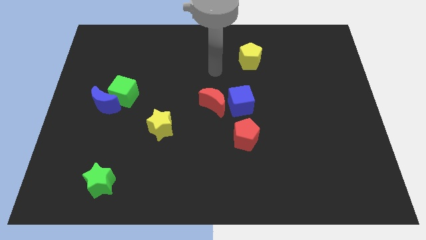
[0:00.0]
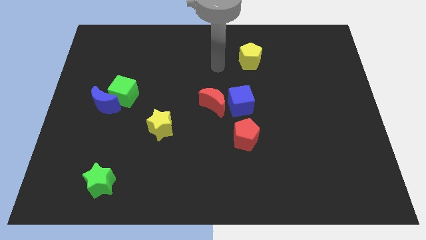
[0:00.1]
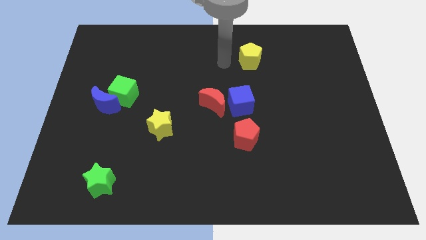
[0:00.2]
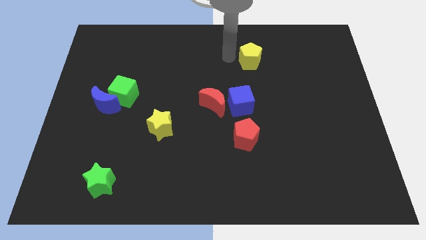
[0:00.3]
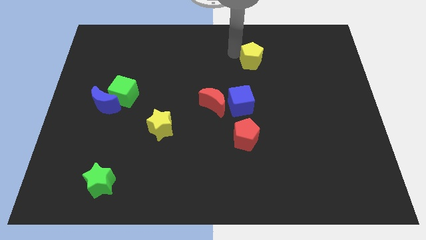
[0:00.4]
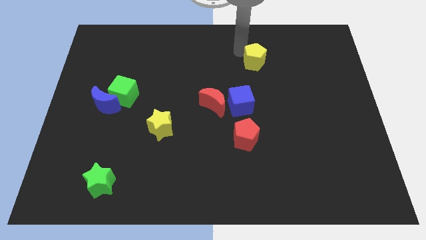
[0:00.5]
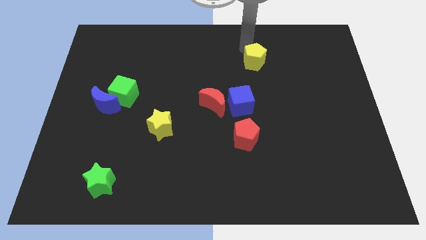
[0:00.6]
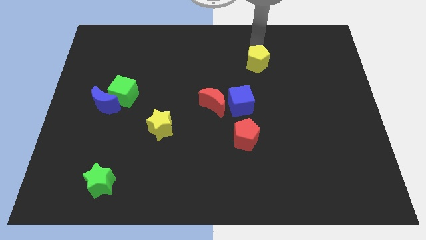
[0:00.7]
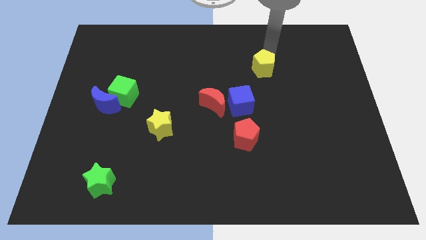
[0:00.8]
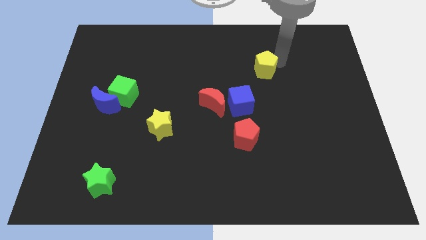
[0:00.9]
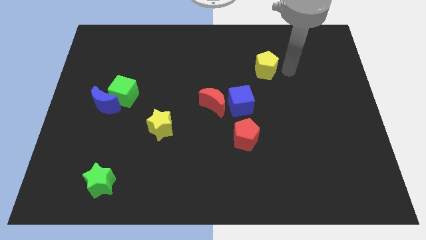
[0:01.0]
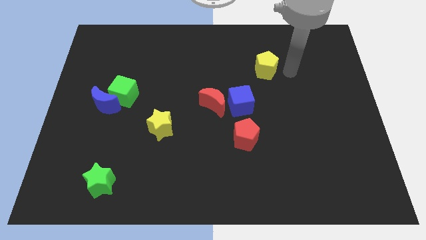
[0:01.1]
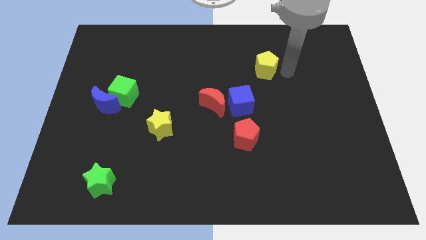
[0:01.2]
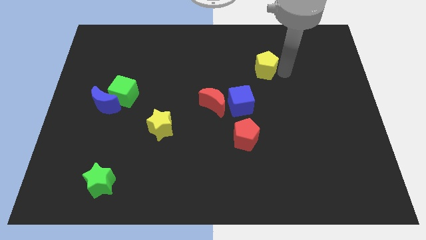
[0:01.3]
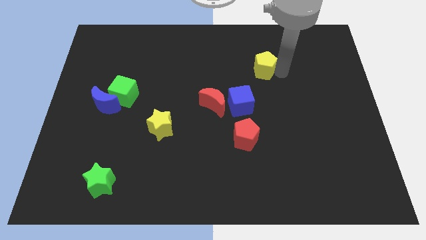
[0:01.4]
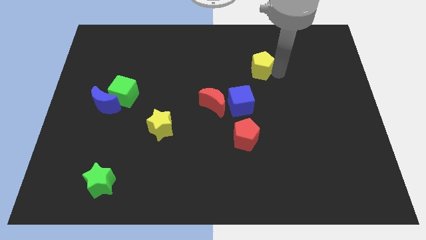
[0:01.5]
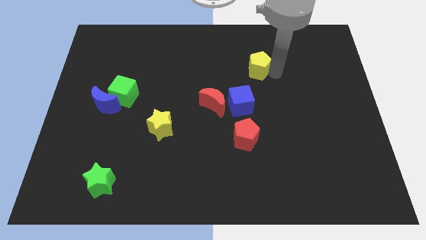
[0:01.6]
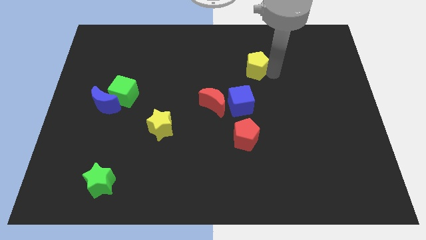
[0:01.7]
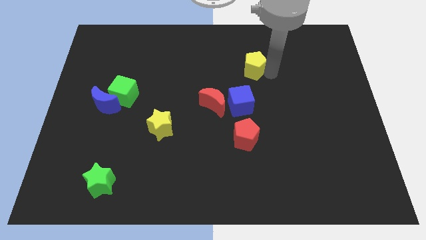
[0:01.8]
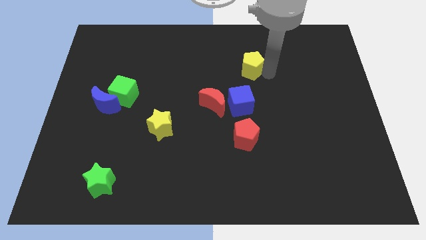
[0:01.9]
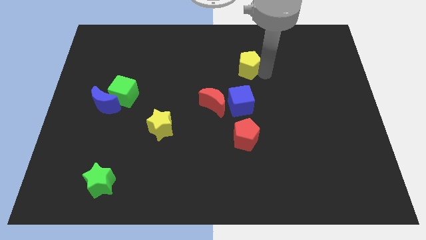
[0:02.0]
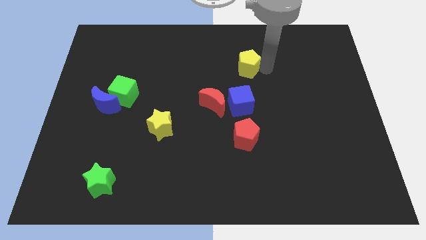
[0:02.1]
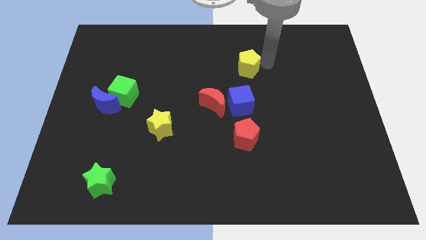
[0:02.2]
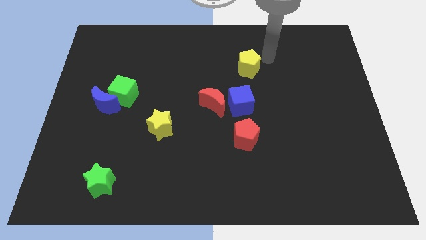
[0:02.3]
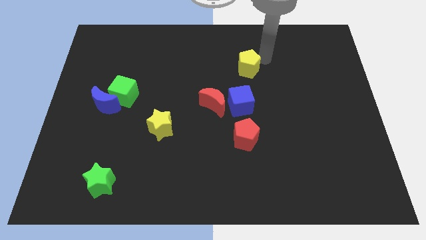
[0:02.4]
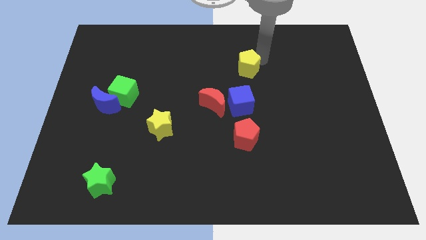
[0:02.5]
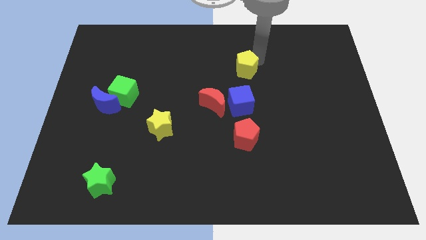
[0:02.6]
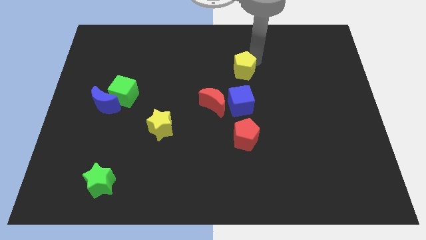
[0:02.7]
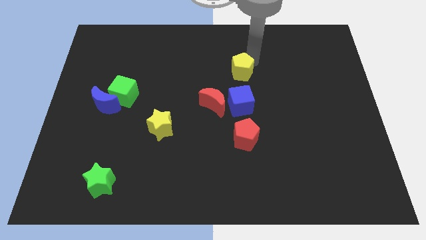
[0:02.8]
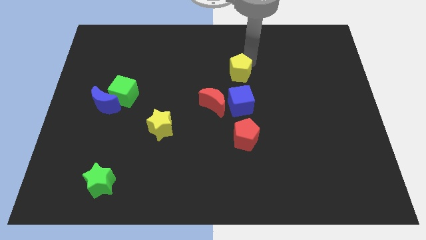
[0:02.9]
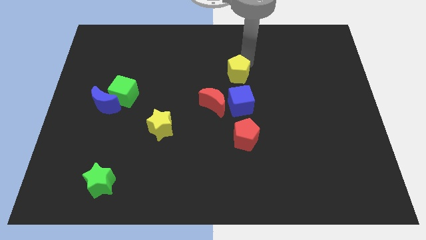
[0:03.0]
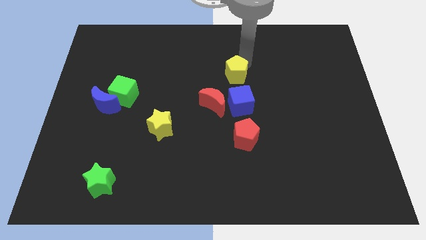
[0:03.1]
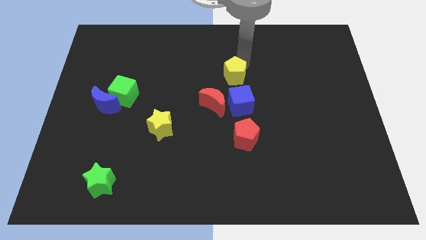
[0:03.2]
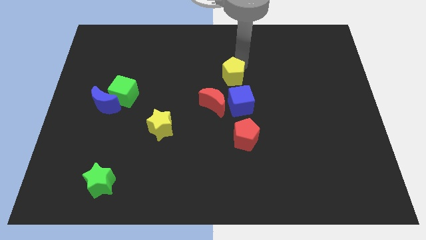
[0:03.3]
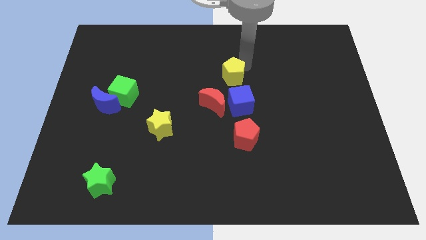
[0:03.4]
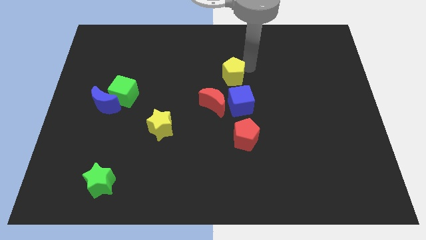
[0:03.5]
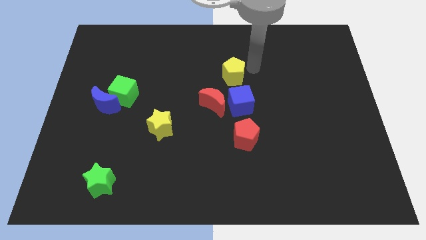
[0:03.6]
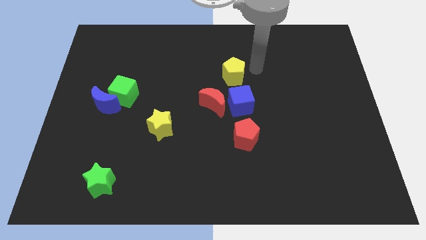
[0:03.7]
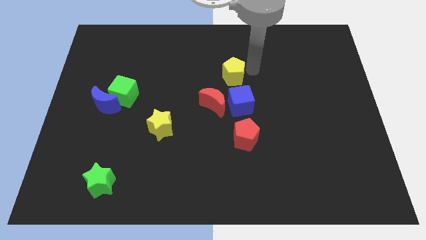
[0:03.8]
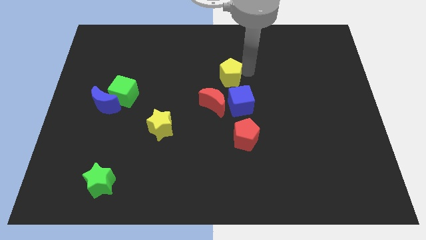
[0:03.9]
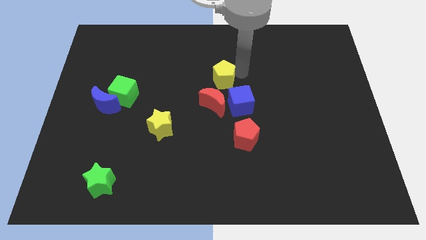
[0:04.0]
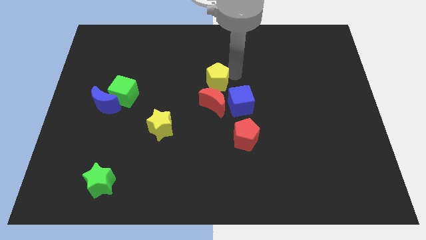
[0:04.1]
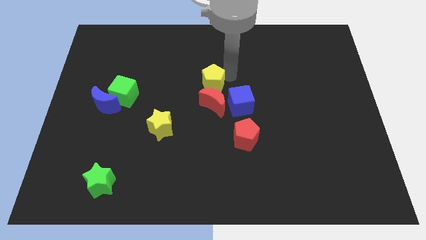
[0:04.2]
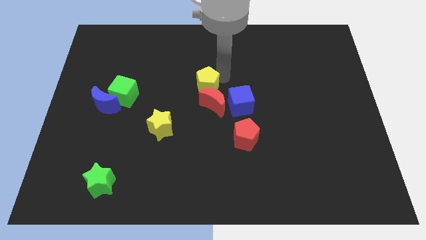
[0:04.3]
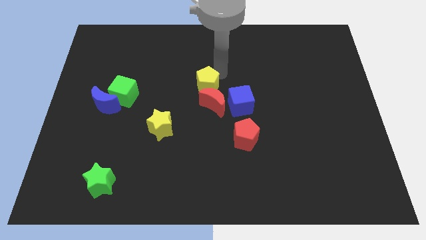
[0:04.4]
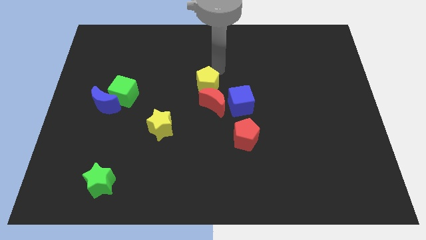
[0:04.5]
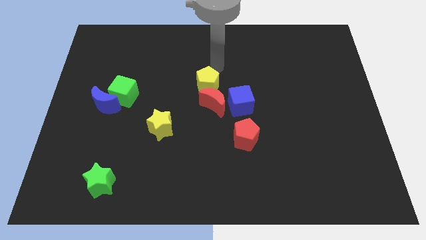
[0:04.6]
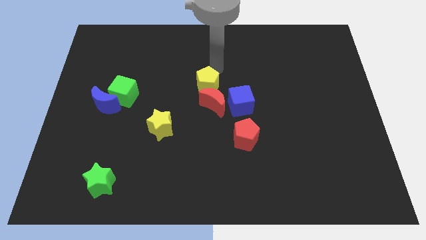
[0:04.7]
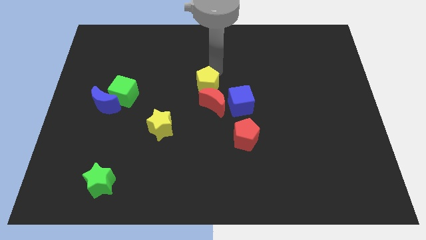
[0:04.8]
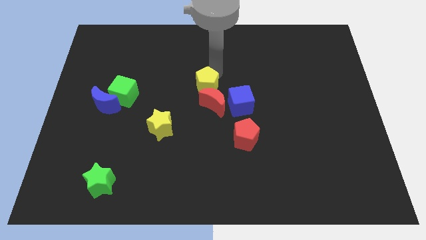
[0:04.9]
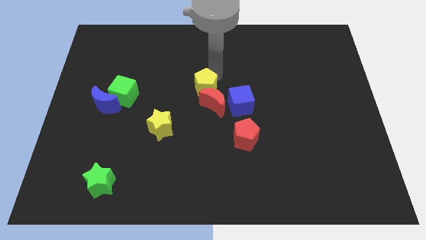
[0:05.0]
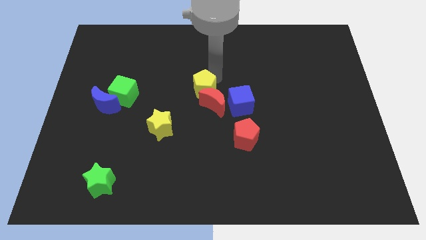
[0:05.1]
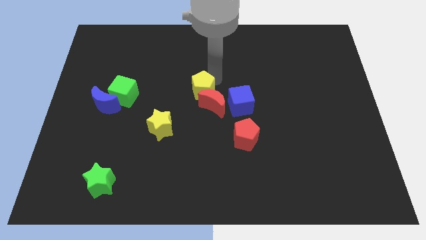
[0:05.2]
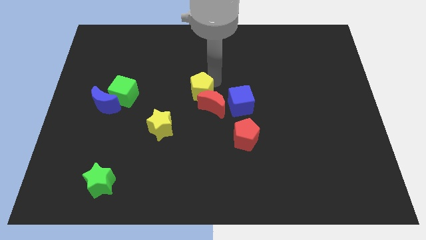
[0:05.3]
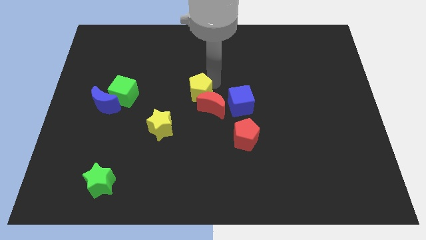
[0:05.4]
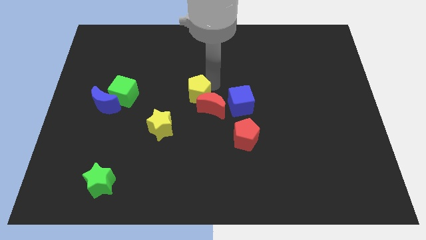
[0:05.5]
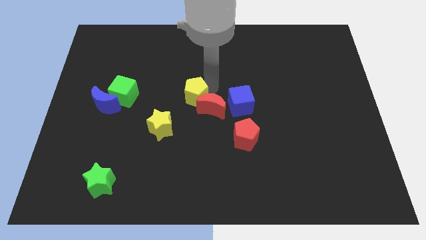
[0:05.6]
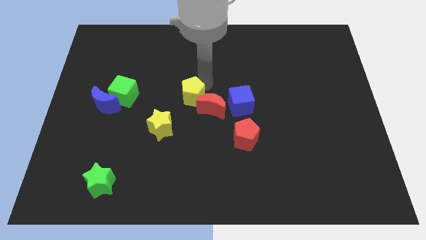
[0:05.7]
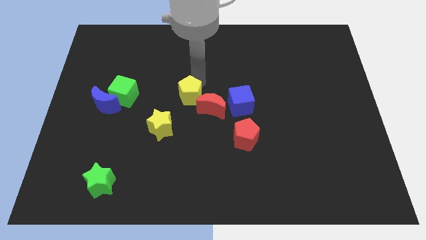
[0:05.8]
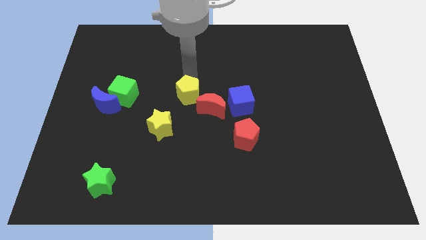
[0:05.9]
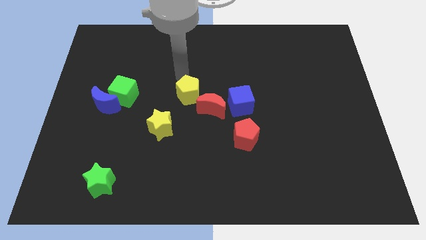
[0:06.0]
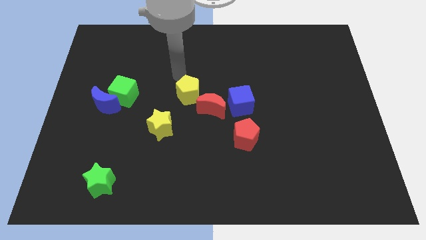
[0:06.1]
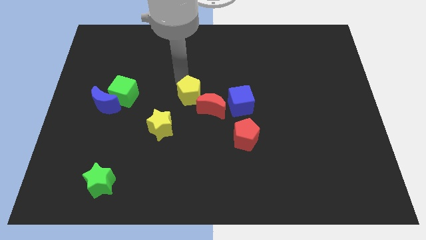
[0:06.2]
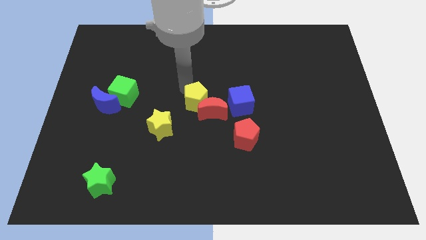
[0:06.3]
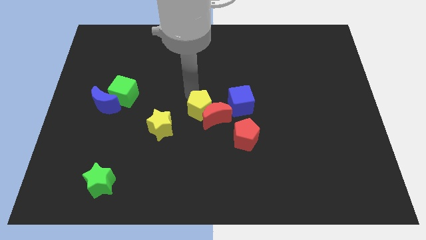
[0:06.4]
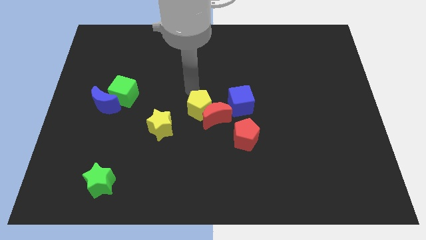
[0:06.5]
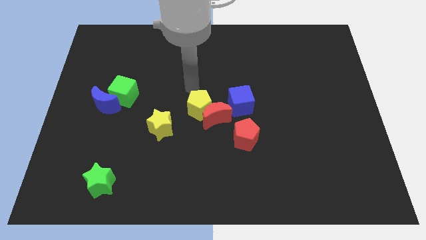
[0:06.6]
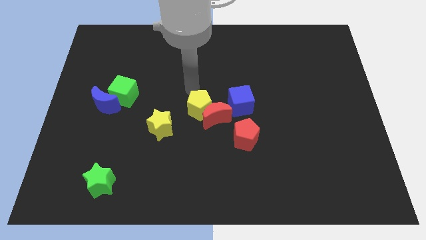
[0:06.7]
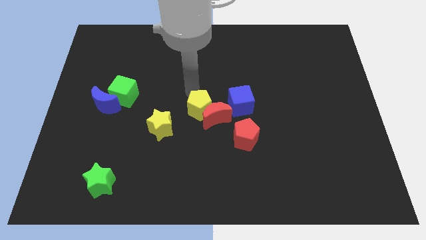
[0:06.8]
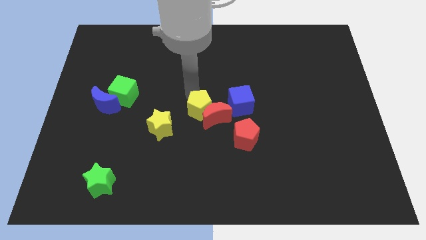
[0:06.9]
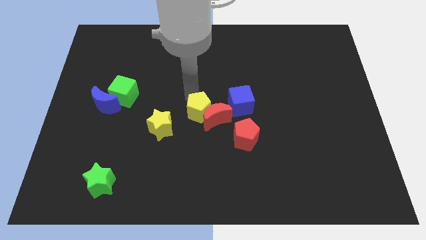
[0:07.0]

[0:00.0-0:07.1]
push the yellow pentagon to the right of the yellow star
